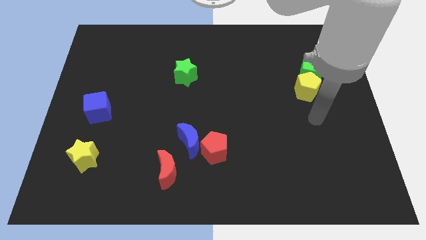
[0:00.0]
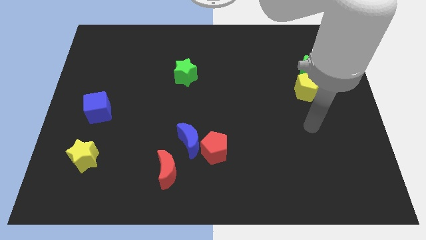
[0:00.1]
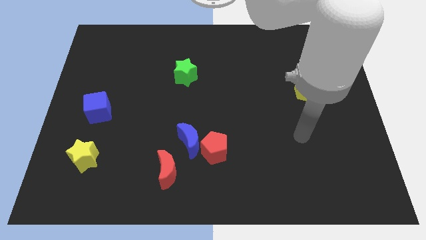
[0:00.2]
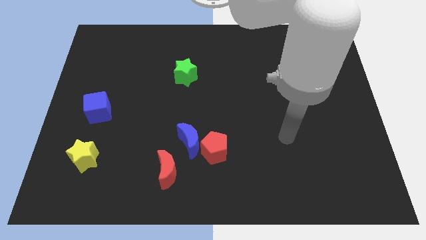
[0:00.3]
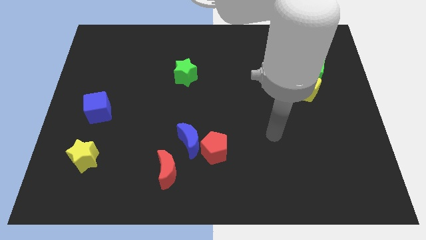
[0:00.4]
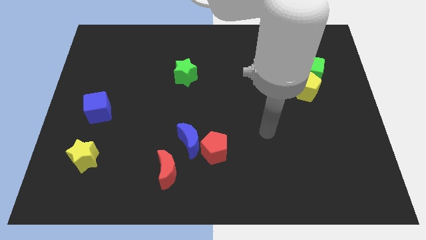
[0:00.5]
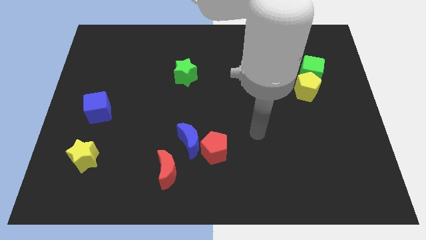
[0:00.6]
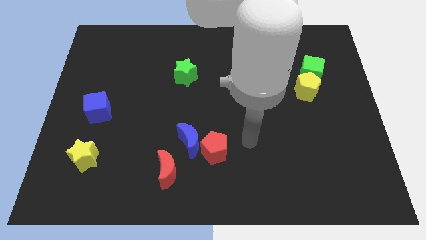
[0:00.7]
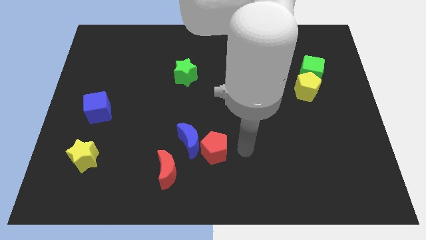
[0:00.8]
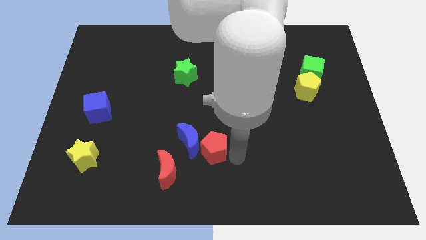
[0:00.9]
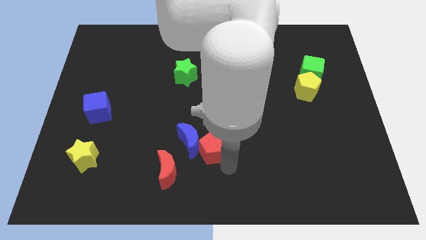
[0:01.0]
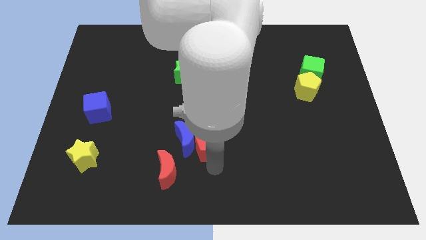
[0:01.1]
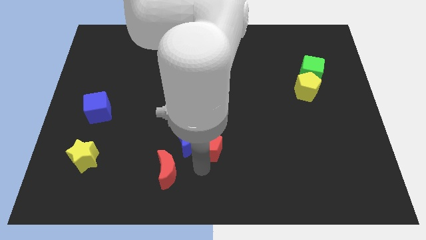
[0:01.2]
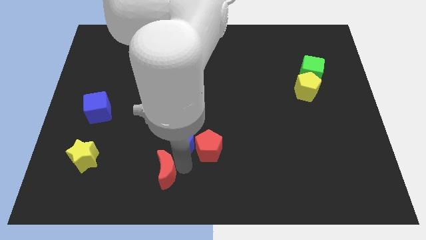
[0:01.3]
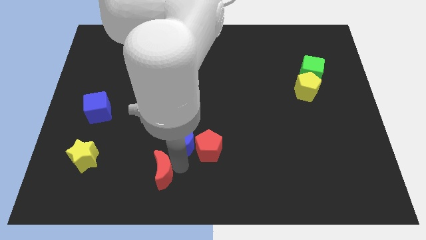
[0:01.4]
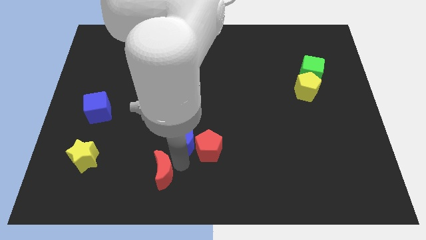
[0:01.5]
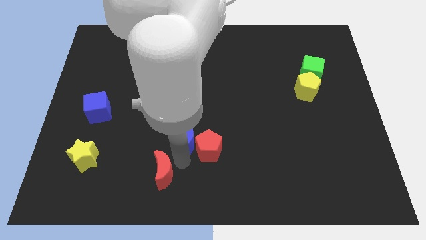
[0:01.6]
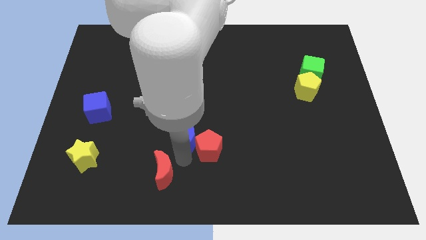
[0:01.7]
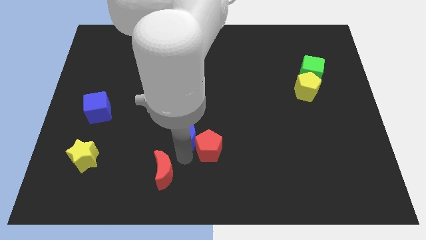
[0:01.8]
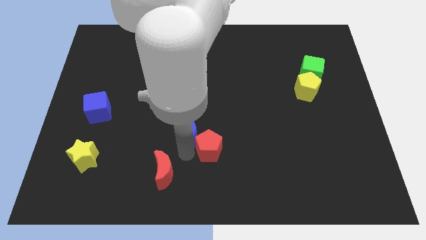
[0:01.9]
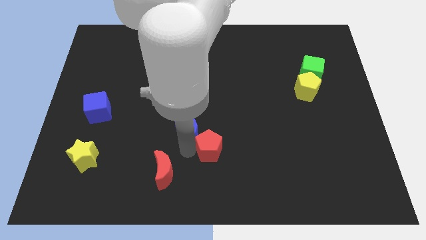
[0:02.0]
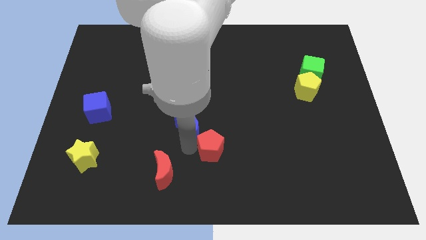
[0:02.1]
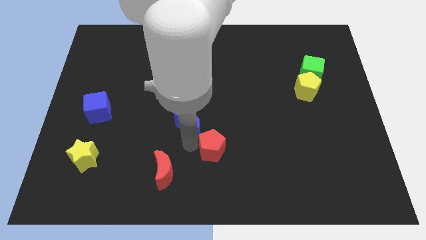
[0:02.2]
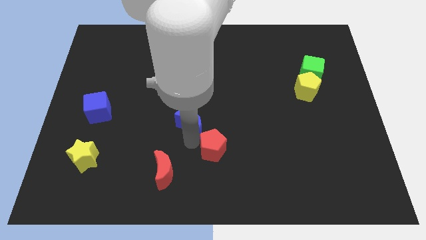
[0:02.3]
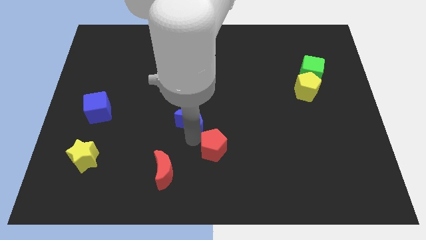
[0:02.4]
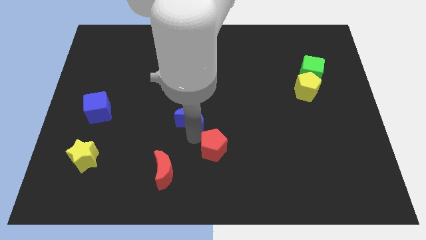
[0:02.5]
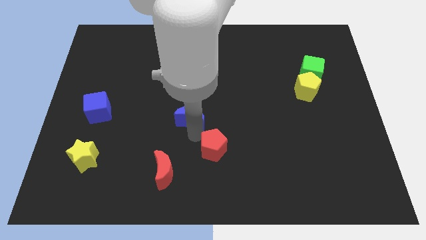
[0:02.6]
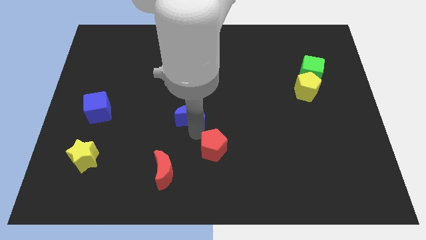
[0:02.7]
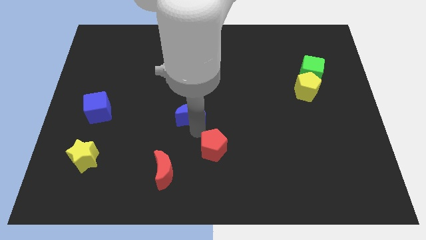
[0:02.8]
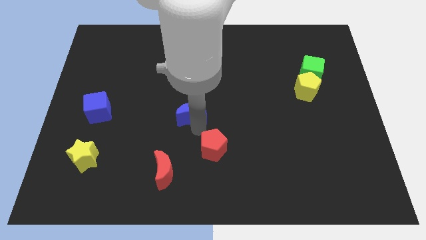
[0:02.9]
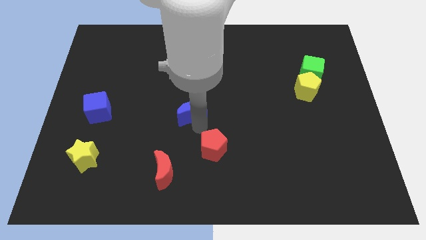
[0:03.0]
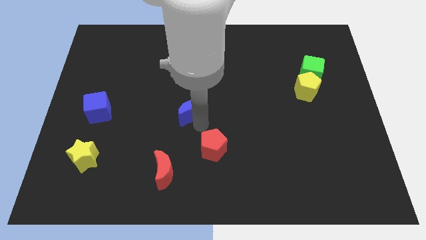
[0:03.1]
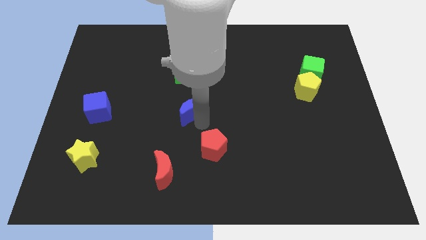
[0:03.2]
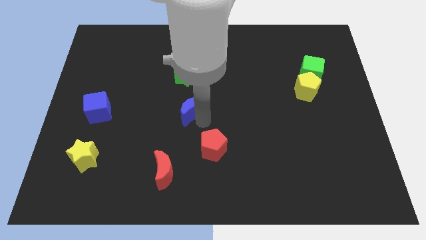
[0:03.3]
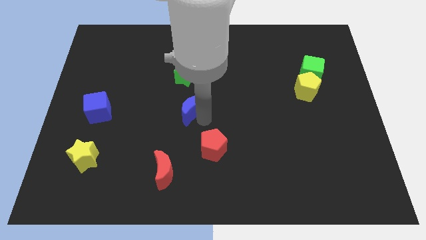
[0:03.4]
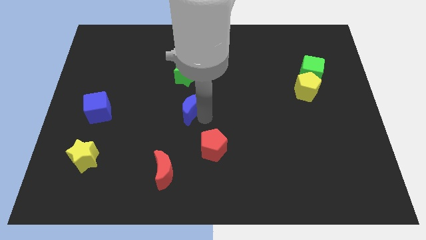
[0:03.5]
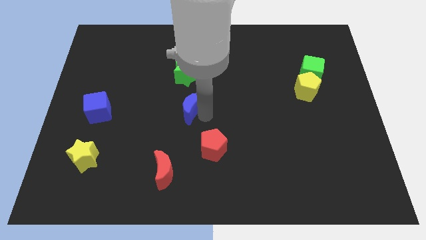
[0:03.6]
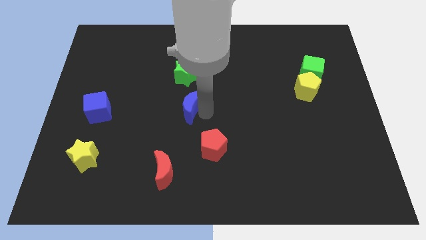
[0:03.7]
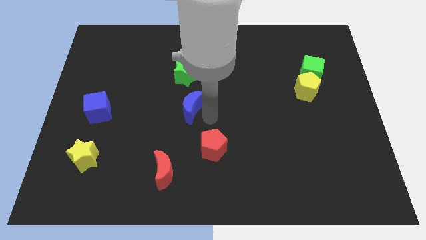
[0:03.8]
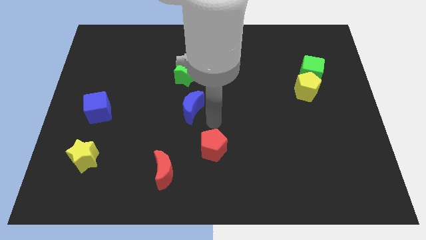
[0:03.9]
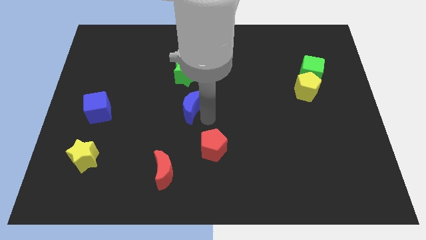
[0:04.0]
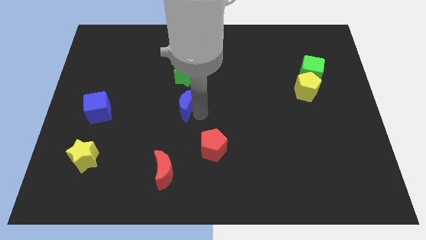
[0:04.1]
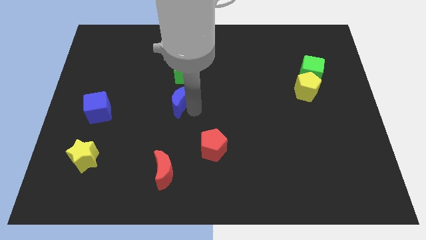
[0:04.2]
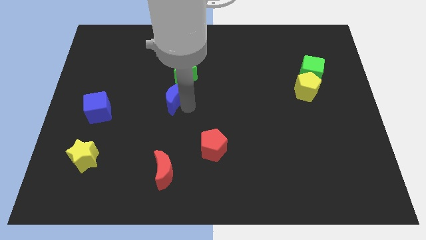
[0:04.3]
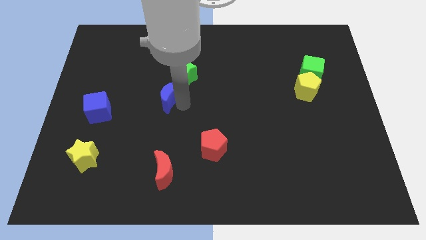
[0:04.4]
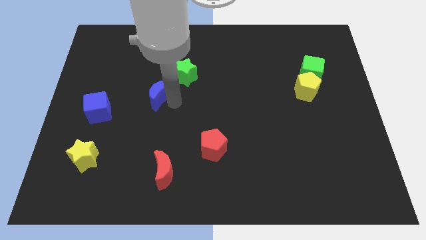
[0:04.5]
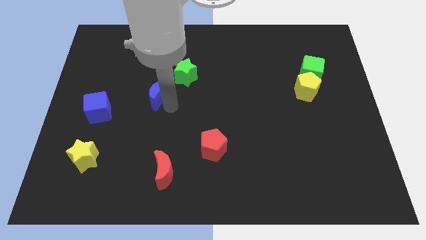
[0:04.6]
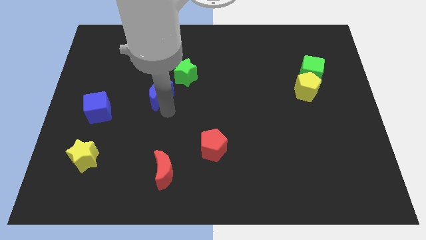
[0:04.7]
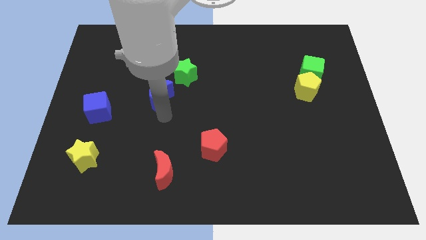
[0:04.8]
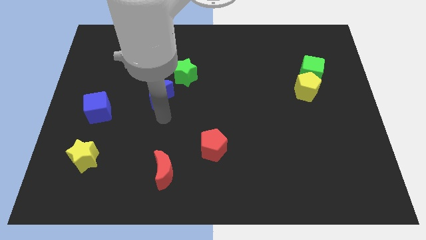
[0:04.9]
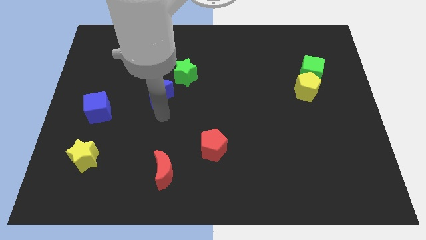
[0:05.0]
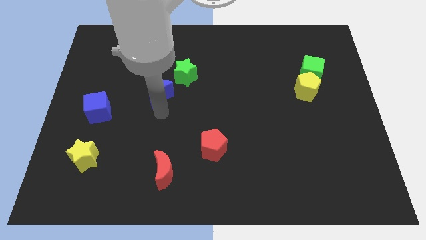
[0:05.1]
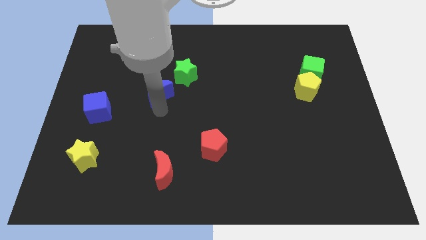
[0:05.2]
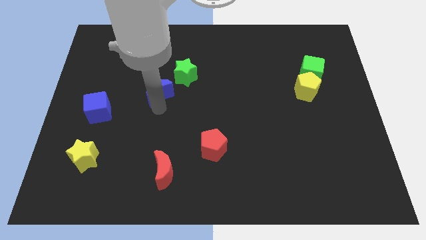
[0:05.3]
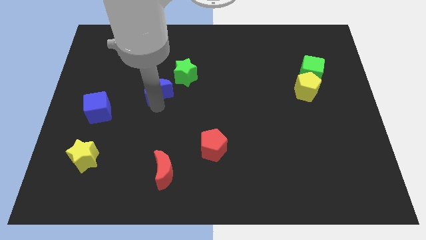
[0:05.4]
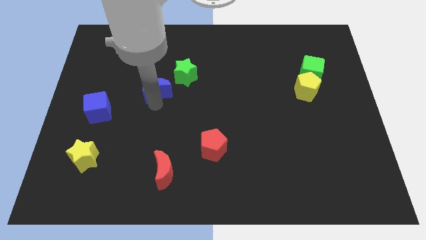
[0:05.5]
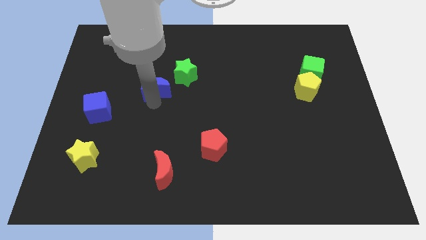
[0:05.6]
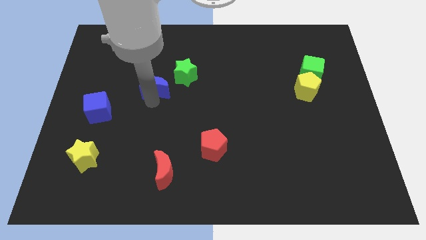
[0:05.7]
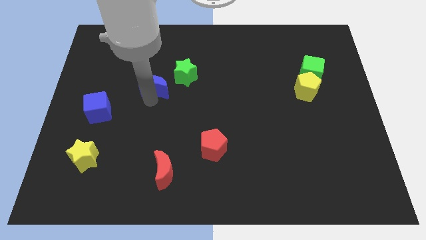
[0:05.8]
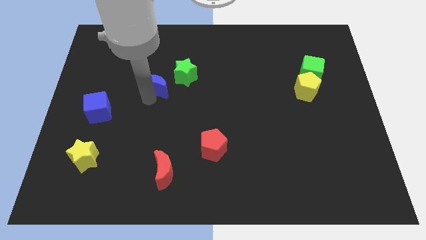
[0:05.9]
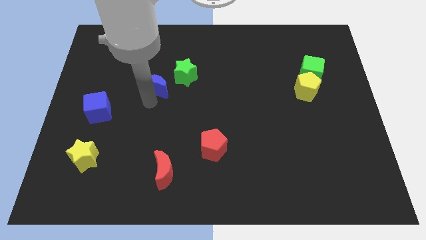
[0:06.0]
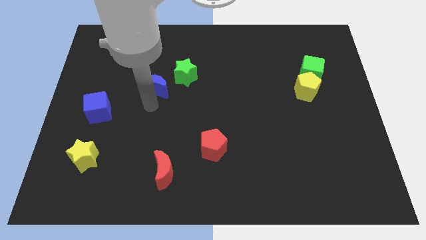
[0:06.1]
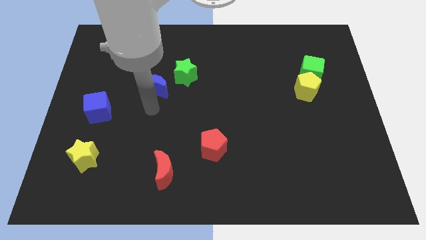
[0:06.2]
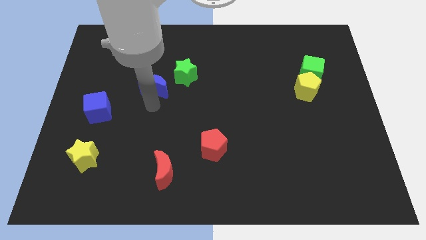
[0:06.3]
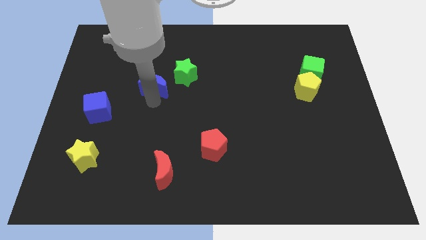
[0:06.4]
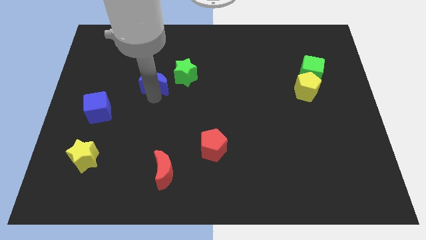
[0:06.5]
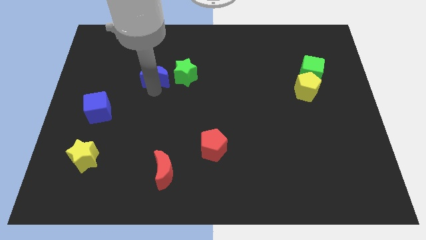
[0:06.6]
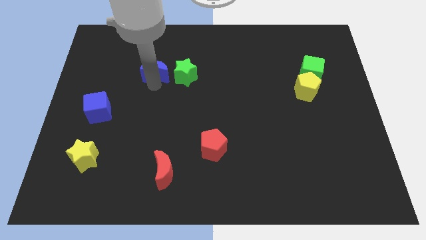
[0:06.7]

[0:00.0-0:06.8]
put the blue moon to the top left side of the green star

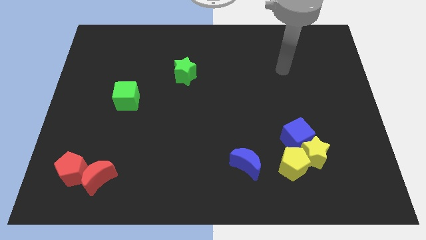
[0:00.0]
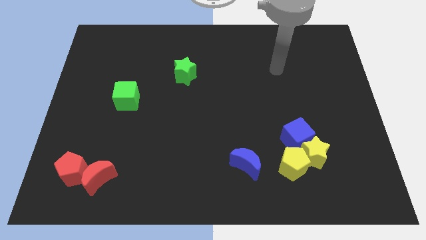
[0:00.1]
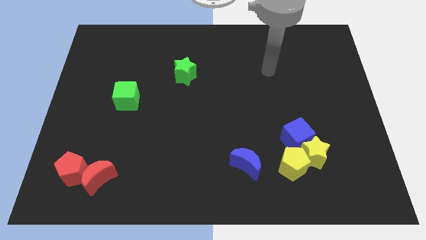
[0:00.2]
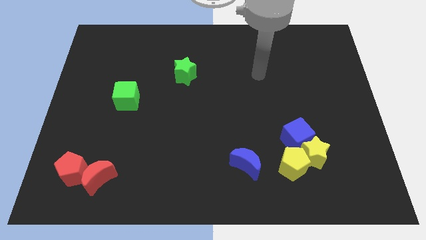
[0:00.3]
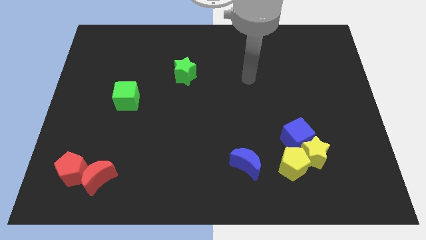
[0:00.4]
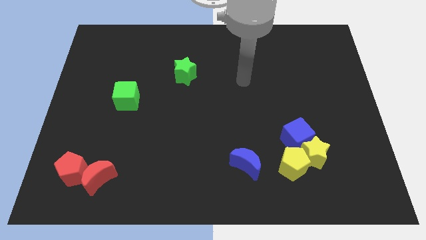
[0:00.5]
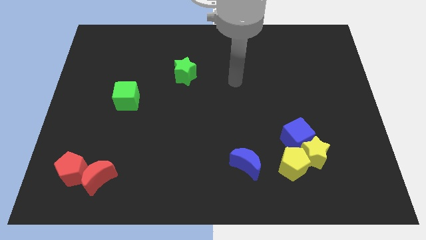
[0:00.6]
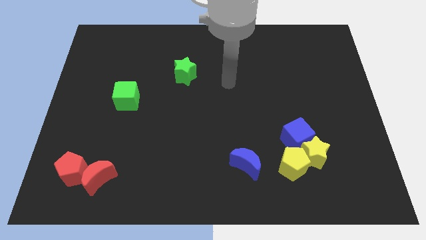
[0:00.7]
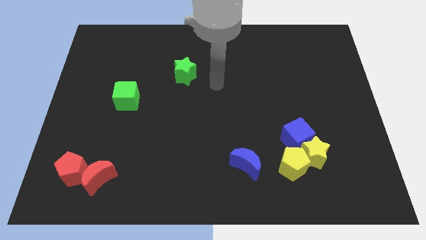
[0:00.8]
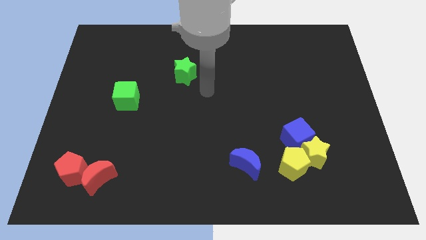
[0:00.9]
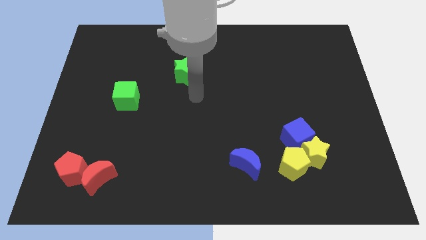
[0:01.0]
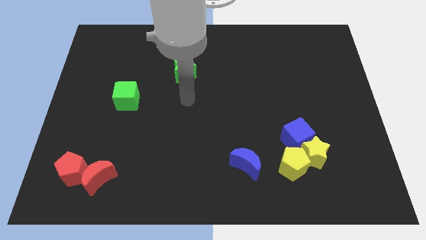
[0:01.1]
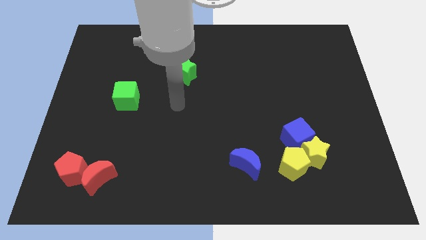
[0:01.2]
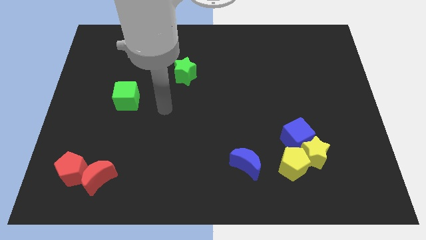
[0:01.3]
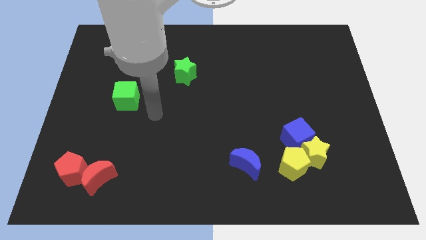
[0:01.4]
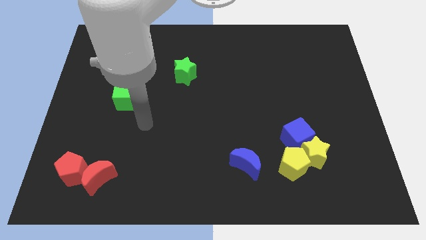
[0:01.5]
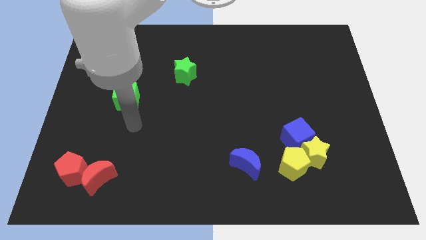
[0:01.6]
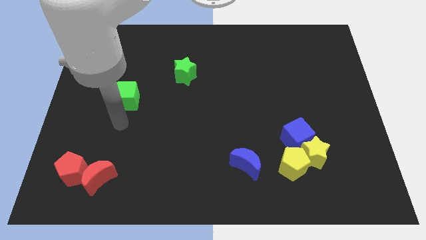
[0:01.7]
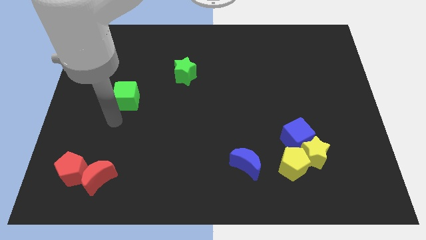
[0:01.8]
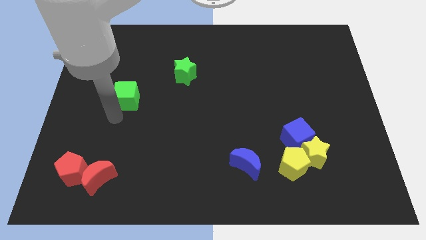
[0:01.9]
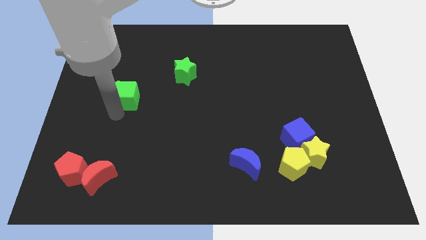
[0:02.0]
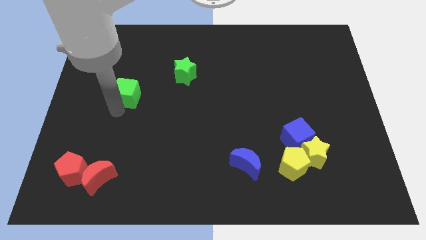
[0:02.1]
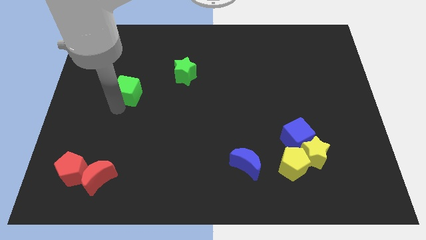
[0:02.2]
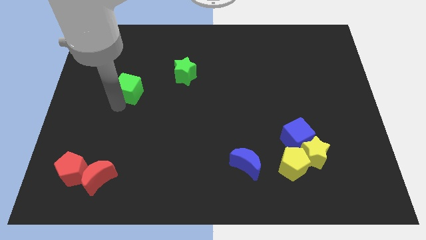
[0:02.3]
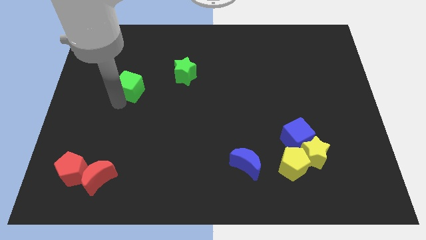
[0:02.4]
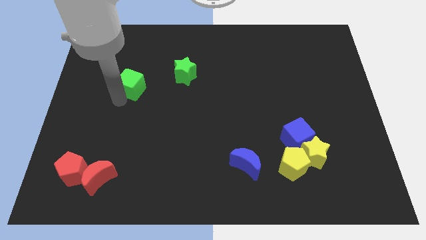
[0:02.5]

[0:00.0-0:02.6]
slide the green cube left of the green star
